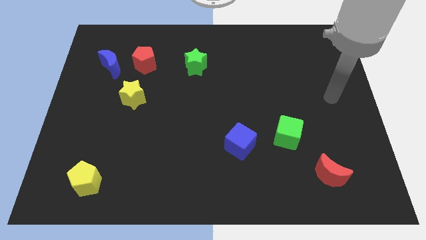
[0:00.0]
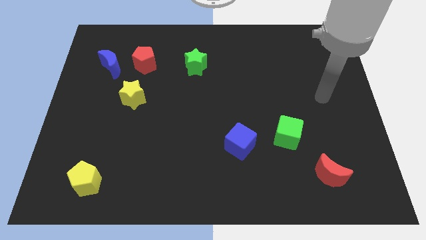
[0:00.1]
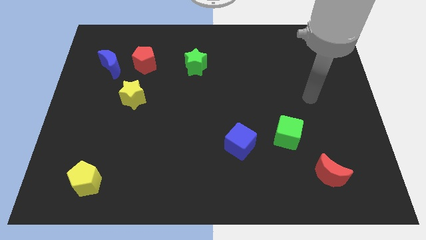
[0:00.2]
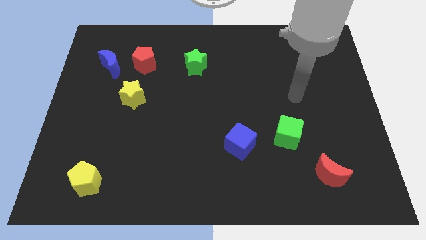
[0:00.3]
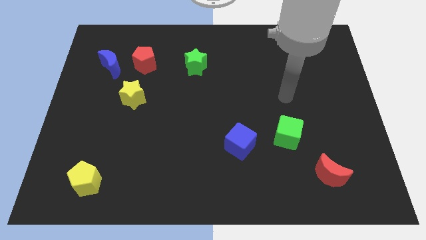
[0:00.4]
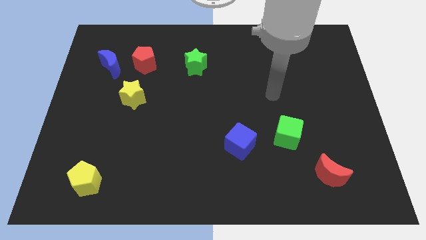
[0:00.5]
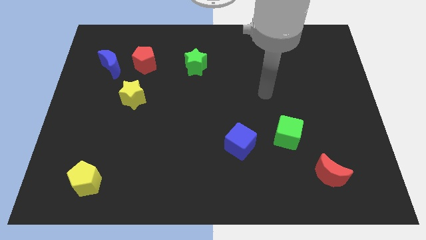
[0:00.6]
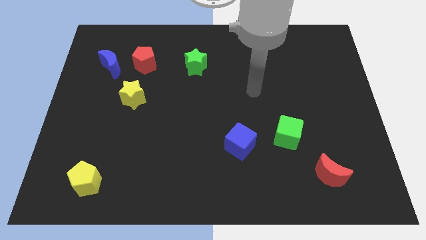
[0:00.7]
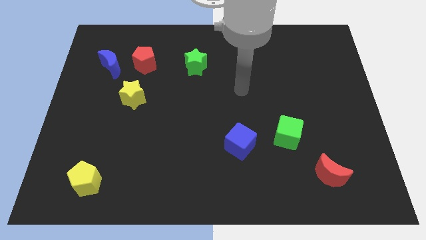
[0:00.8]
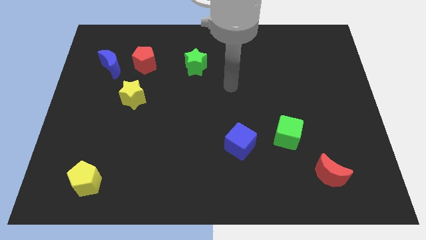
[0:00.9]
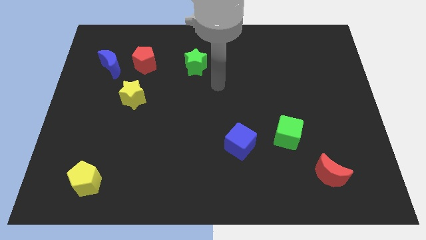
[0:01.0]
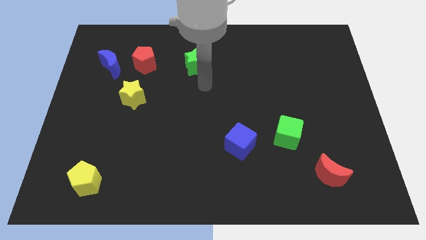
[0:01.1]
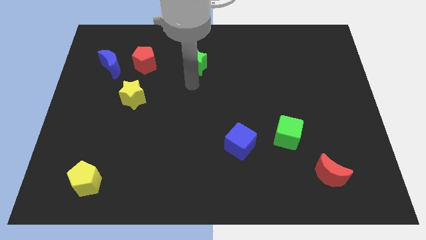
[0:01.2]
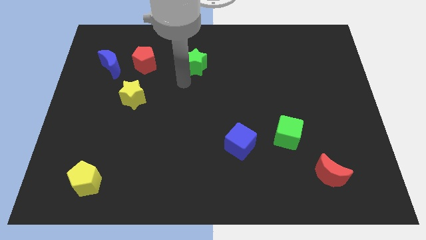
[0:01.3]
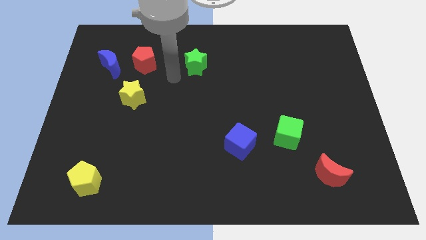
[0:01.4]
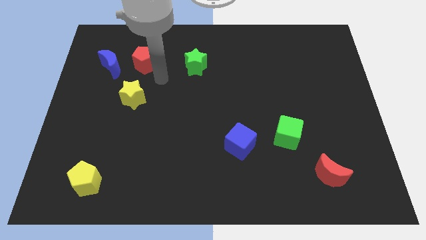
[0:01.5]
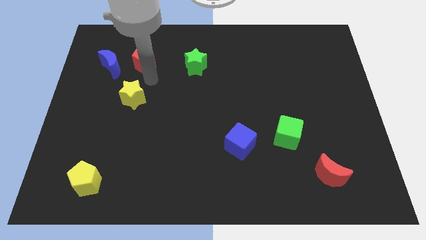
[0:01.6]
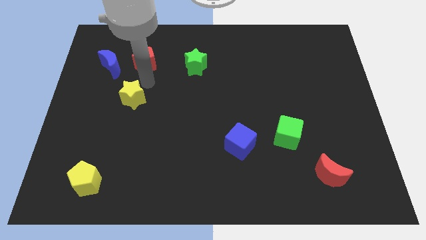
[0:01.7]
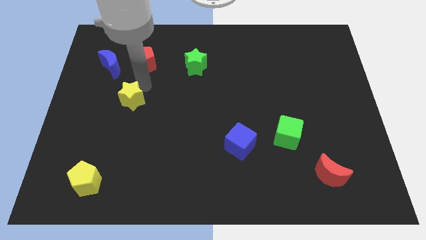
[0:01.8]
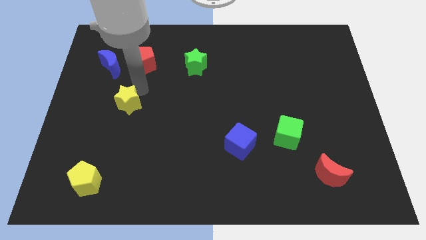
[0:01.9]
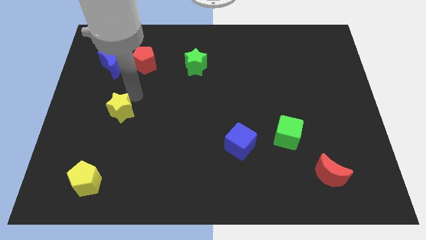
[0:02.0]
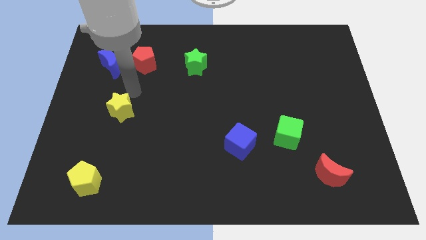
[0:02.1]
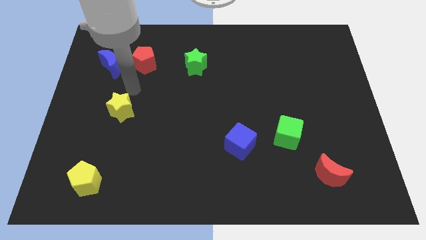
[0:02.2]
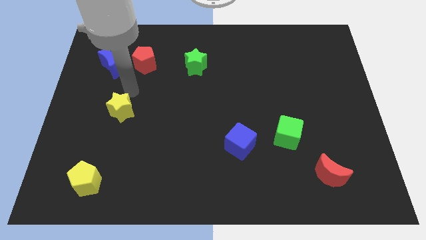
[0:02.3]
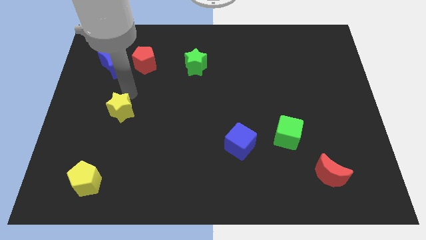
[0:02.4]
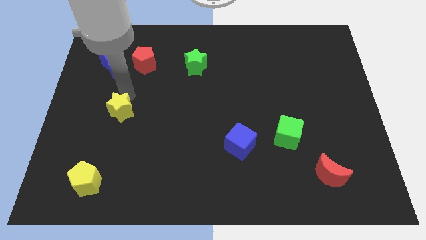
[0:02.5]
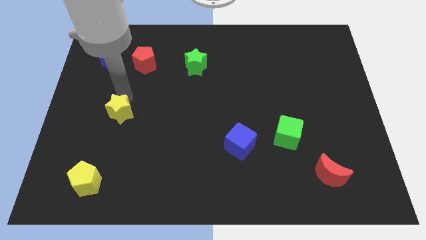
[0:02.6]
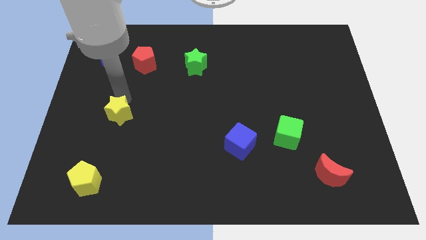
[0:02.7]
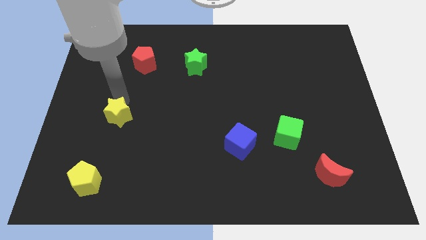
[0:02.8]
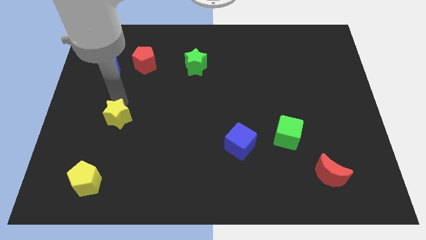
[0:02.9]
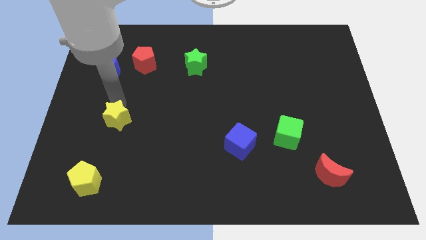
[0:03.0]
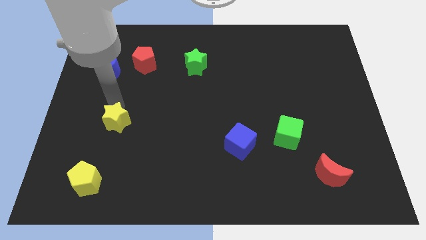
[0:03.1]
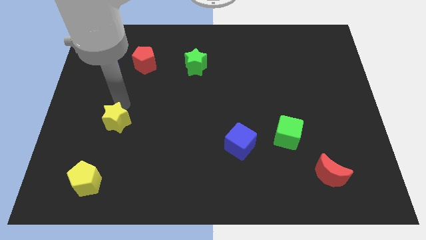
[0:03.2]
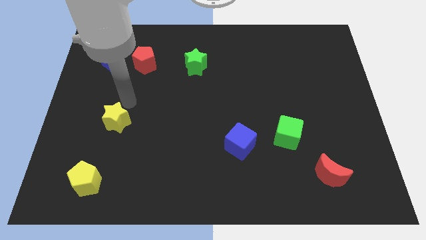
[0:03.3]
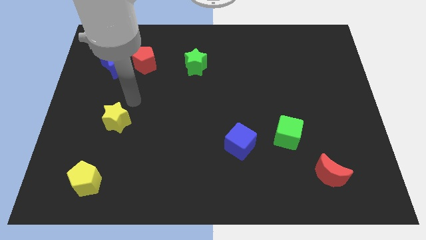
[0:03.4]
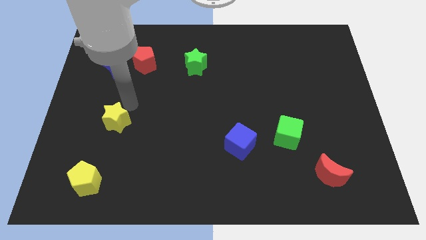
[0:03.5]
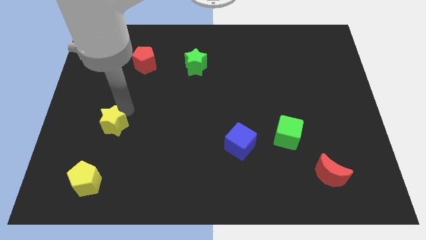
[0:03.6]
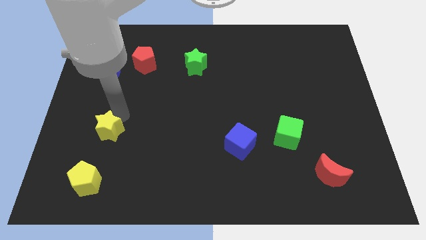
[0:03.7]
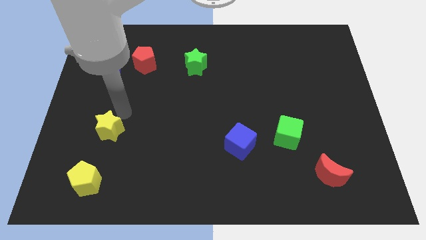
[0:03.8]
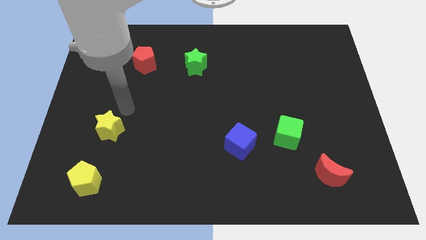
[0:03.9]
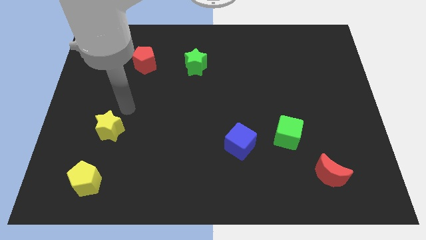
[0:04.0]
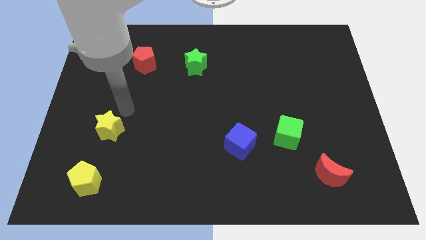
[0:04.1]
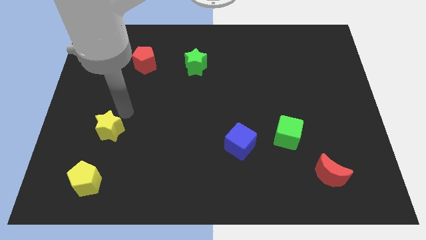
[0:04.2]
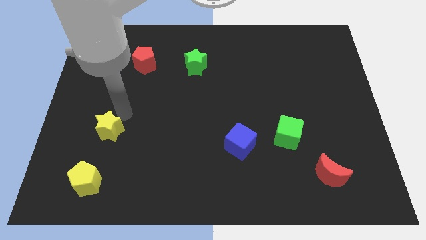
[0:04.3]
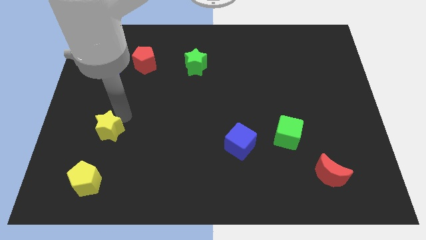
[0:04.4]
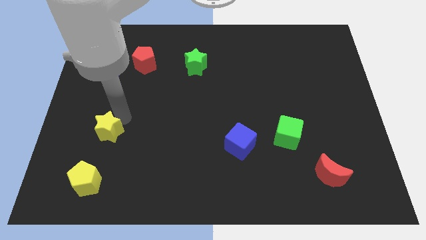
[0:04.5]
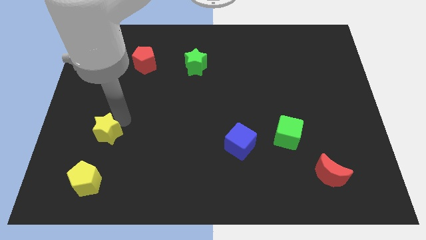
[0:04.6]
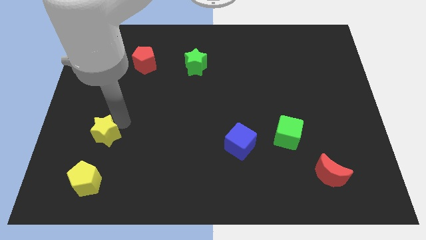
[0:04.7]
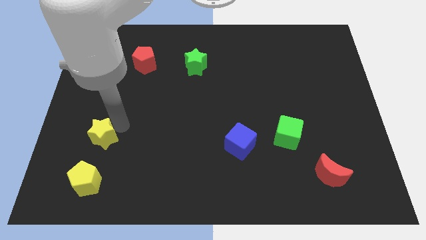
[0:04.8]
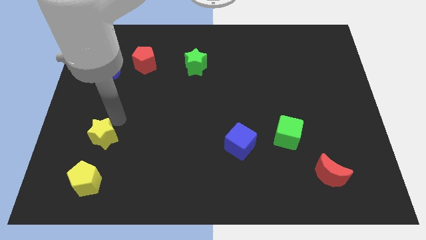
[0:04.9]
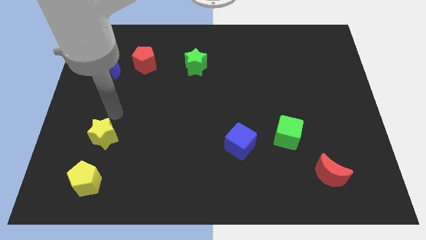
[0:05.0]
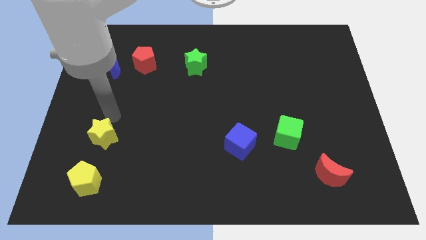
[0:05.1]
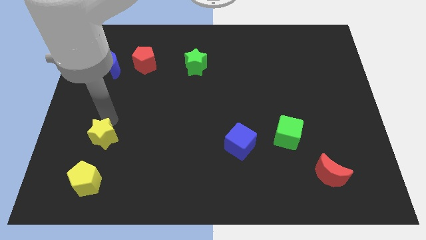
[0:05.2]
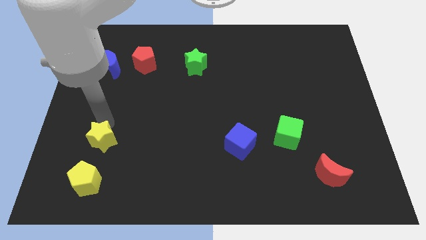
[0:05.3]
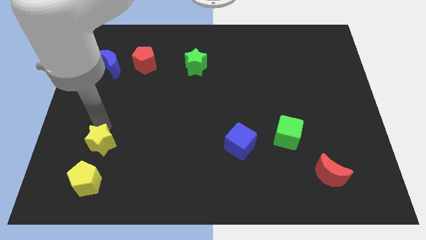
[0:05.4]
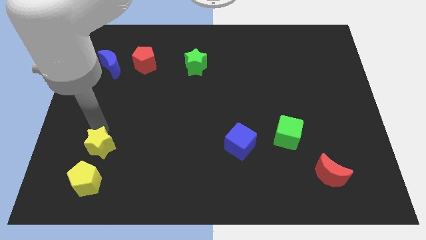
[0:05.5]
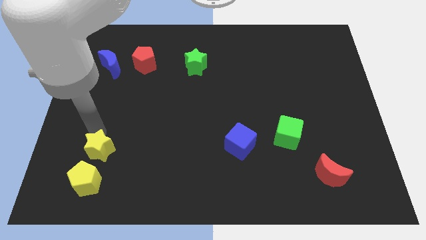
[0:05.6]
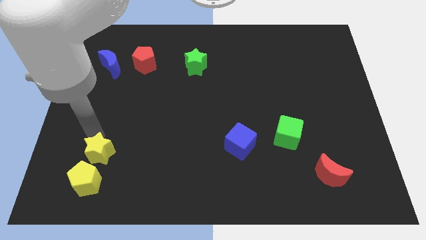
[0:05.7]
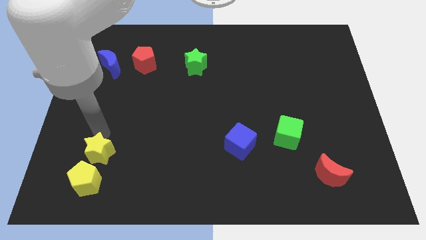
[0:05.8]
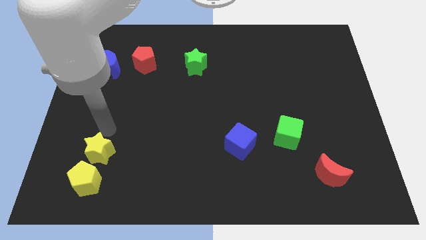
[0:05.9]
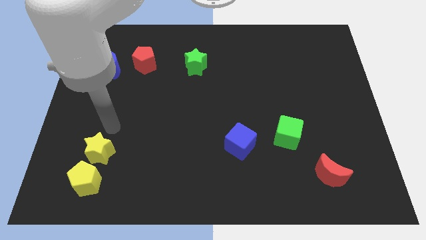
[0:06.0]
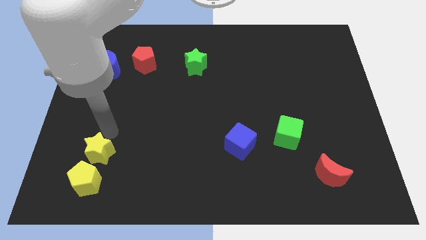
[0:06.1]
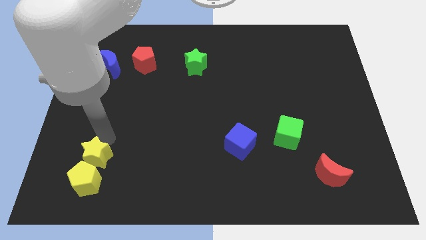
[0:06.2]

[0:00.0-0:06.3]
put the yellow star towards the yellow pentagon

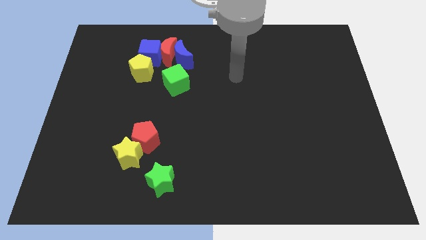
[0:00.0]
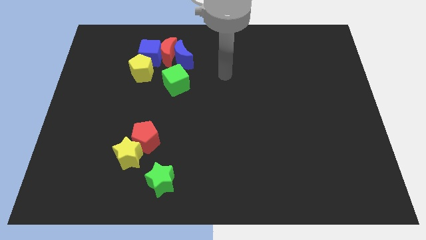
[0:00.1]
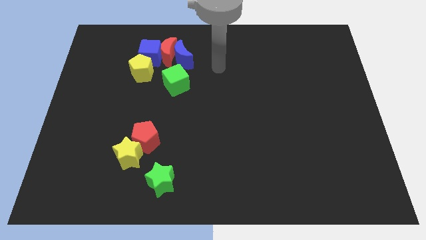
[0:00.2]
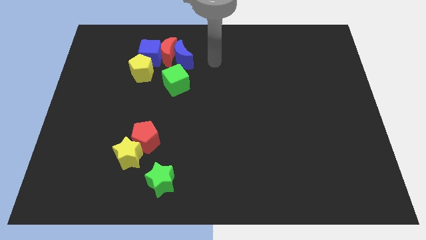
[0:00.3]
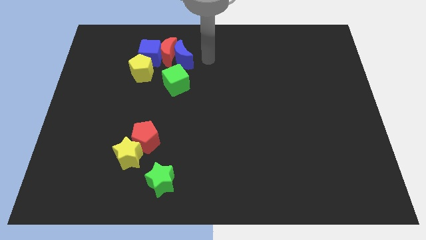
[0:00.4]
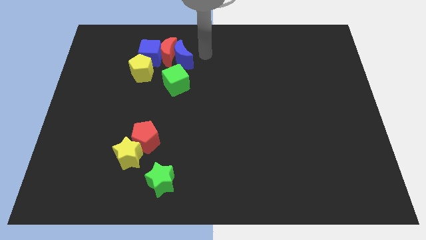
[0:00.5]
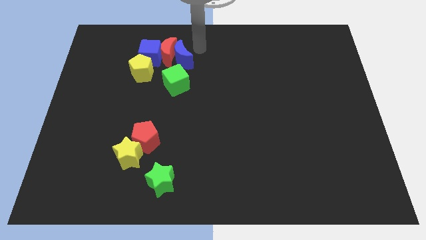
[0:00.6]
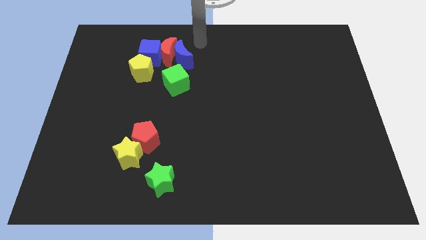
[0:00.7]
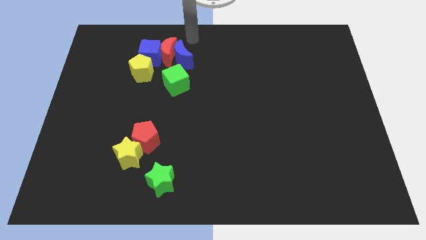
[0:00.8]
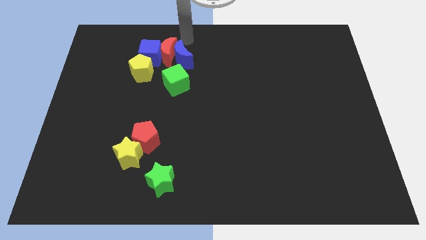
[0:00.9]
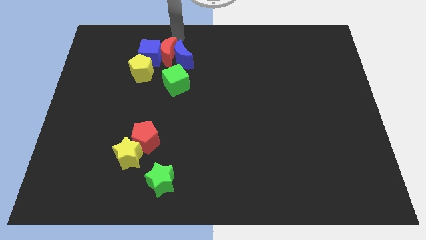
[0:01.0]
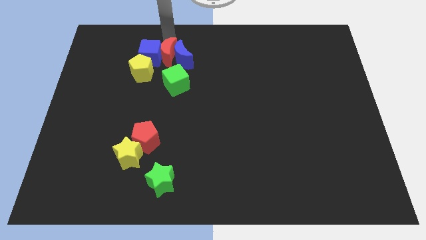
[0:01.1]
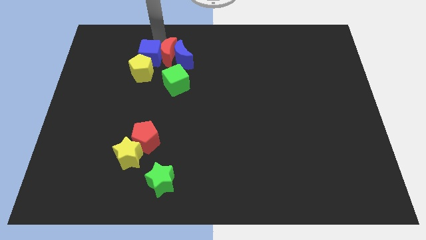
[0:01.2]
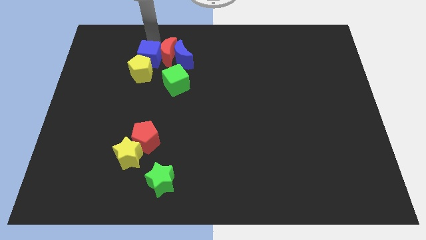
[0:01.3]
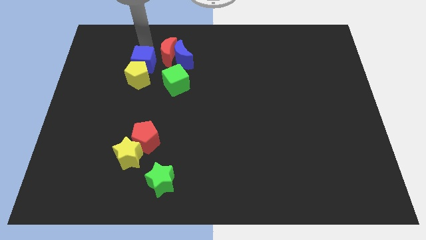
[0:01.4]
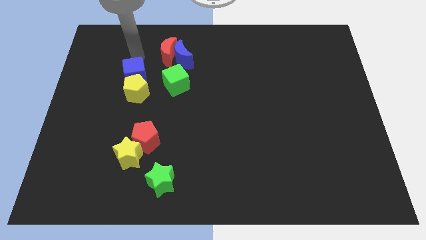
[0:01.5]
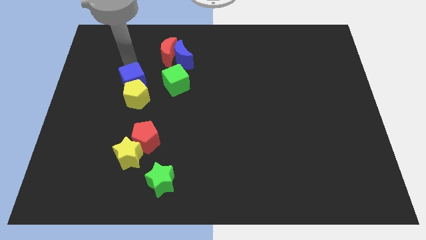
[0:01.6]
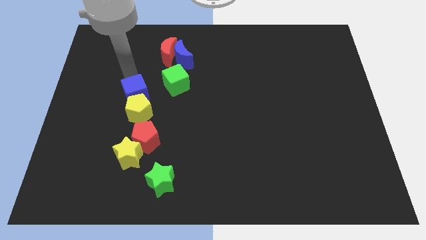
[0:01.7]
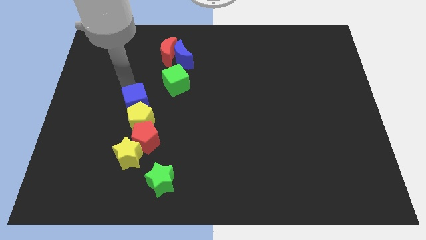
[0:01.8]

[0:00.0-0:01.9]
push the yellow pentagon next to the red pentagon
